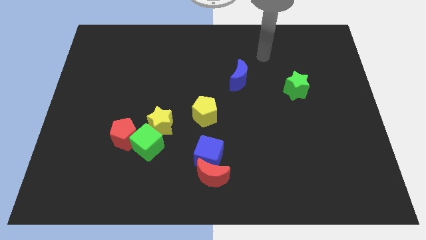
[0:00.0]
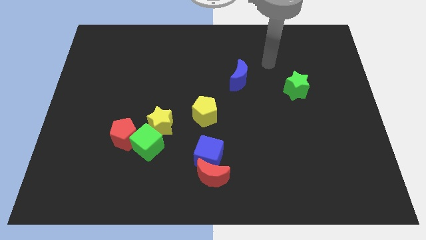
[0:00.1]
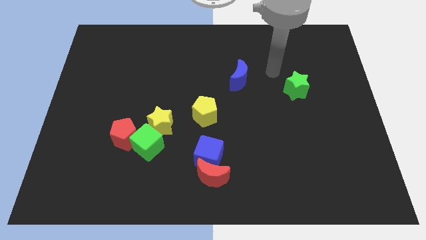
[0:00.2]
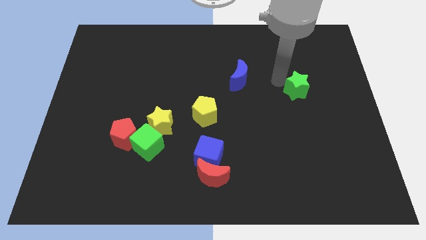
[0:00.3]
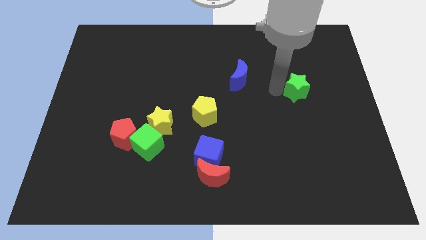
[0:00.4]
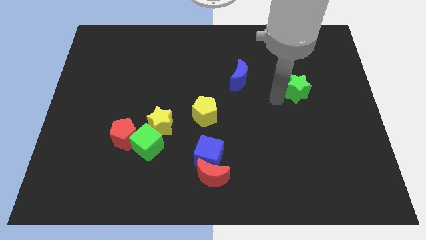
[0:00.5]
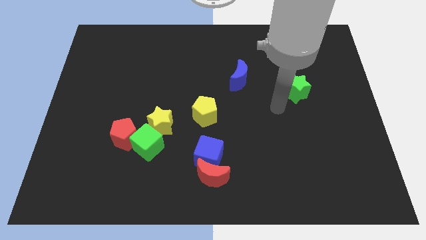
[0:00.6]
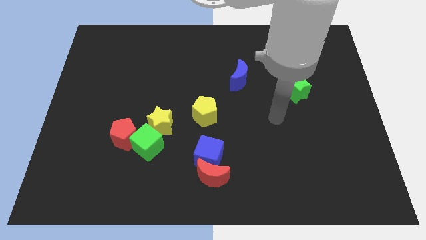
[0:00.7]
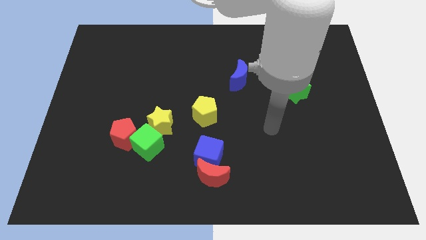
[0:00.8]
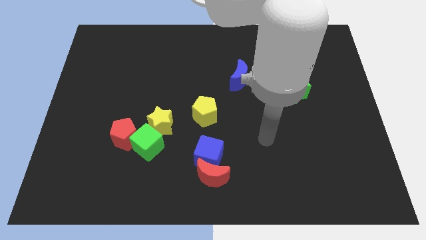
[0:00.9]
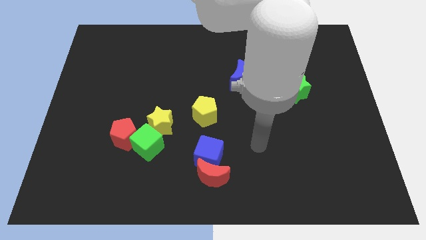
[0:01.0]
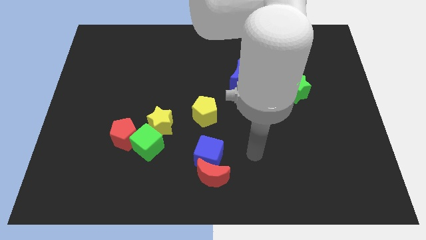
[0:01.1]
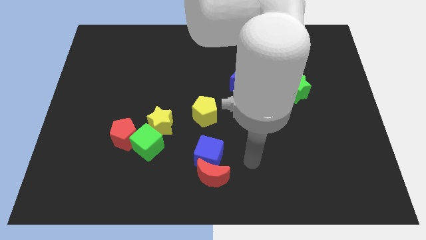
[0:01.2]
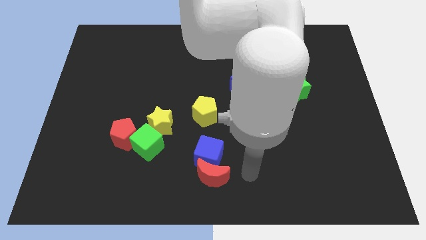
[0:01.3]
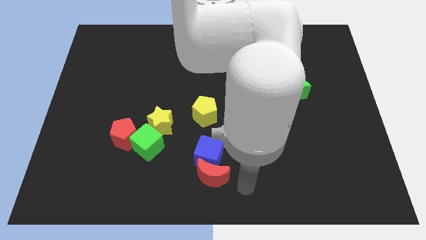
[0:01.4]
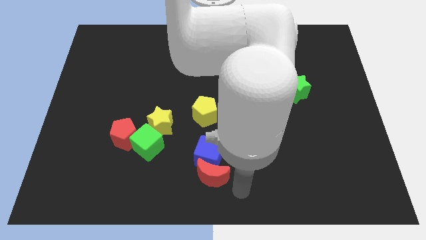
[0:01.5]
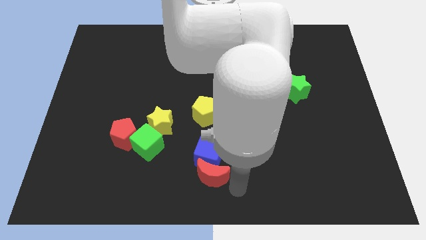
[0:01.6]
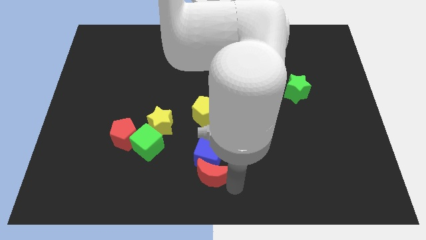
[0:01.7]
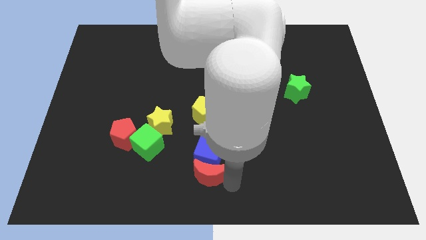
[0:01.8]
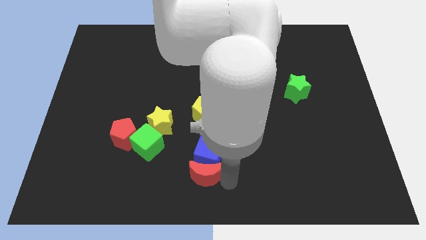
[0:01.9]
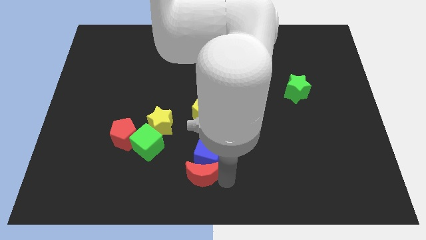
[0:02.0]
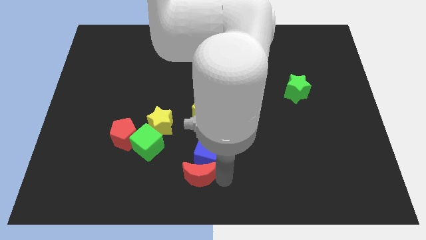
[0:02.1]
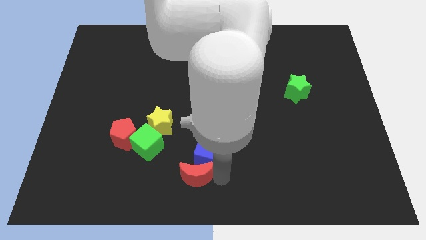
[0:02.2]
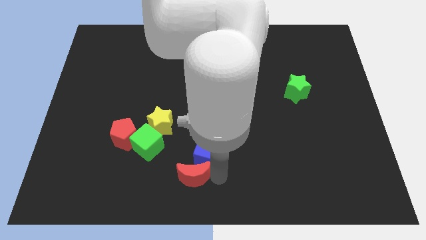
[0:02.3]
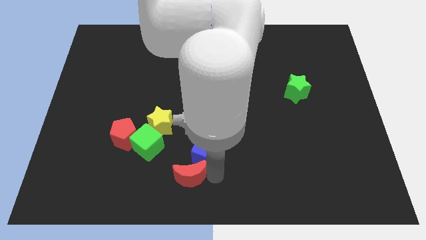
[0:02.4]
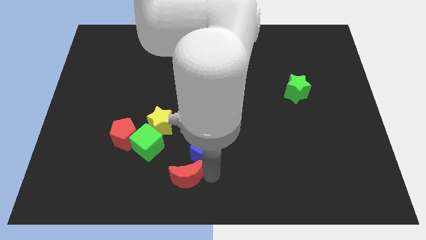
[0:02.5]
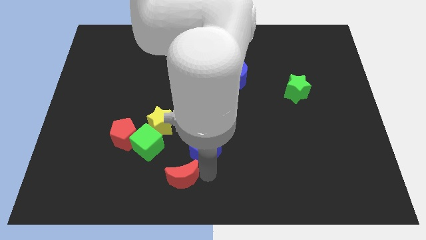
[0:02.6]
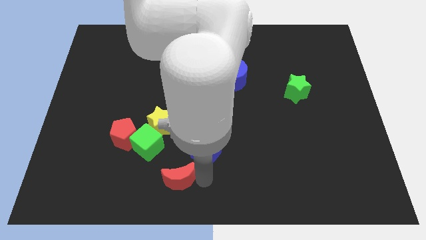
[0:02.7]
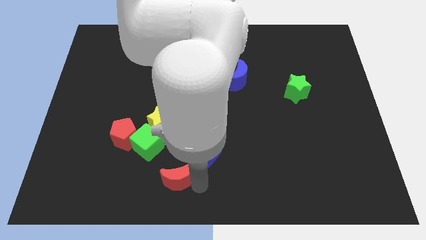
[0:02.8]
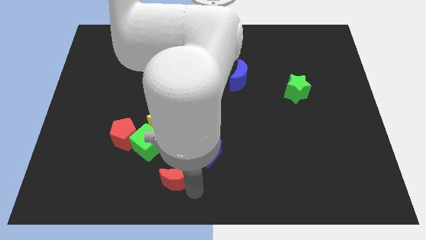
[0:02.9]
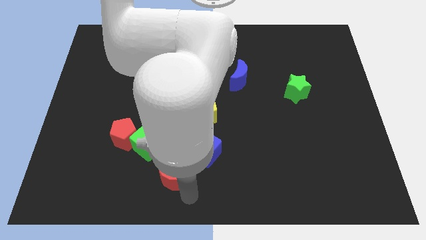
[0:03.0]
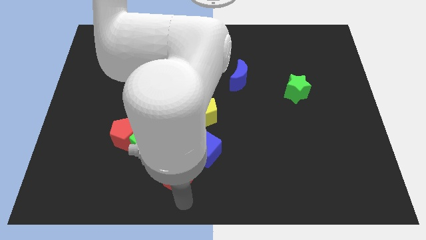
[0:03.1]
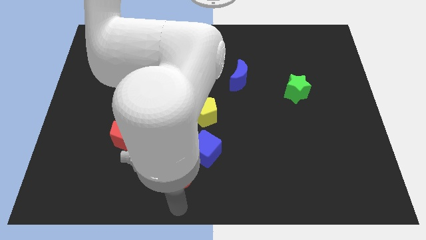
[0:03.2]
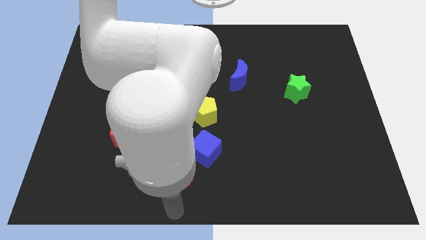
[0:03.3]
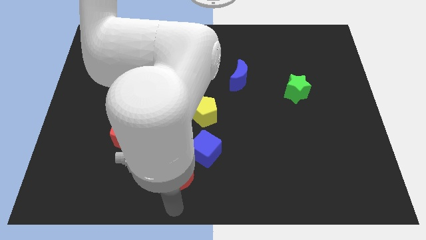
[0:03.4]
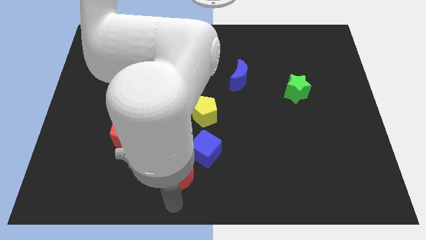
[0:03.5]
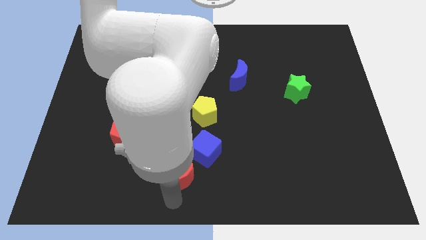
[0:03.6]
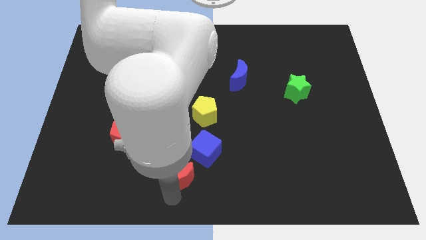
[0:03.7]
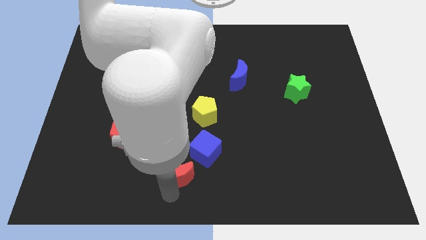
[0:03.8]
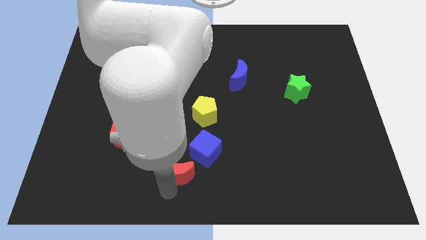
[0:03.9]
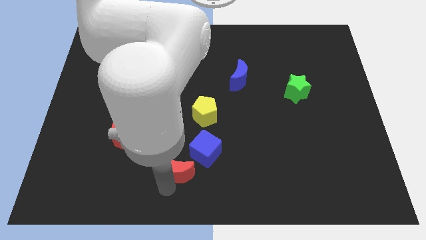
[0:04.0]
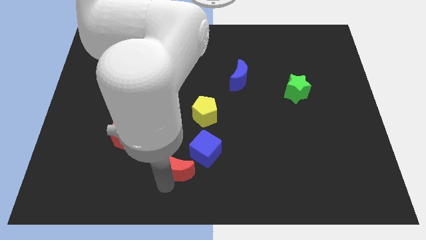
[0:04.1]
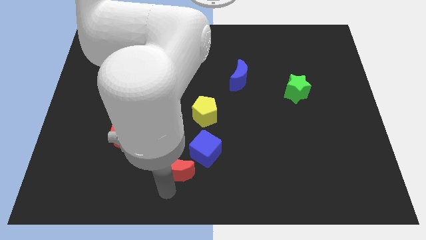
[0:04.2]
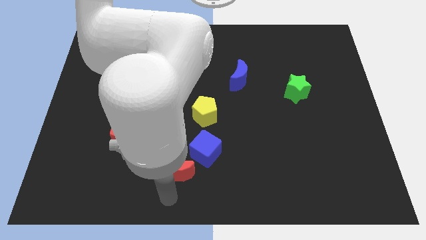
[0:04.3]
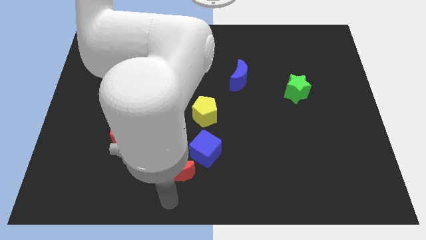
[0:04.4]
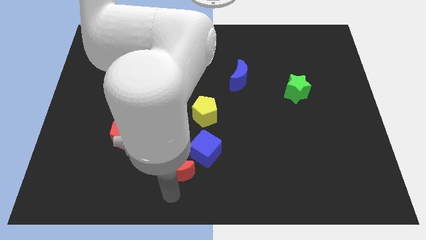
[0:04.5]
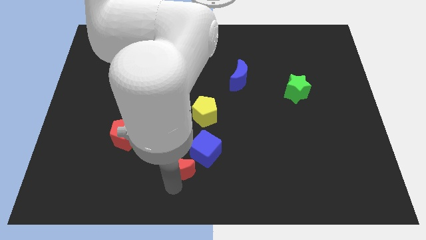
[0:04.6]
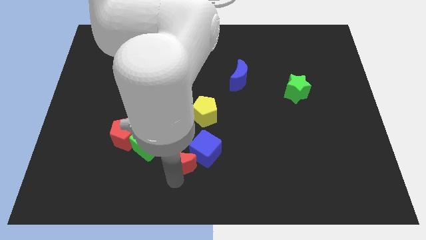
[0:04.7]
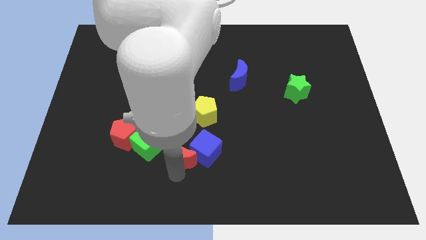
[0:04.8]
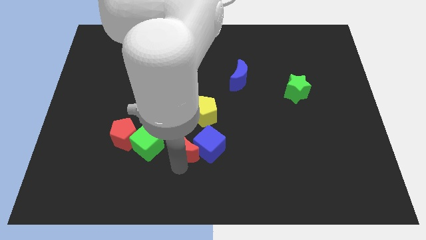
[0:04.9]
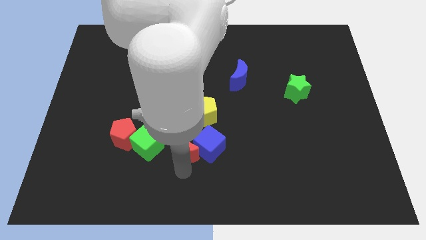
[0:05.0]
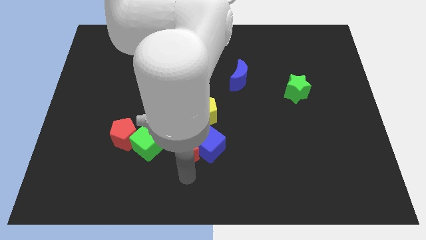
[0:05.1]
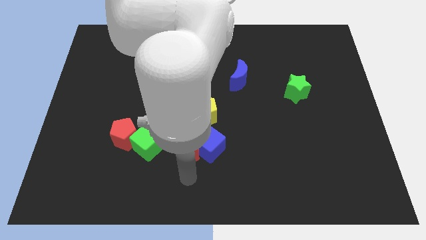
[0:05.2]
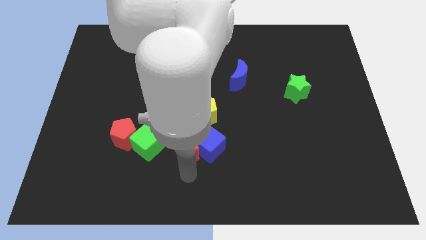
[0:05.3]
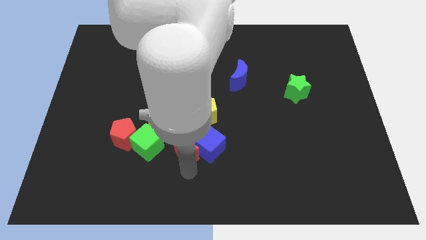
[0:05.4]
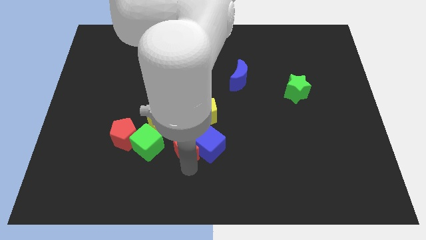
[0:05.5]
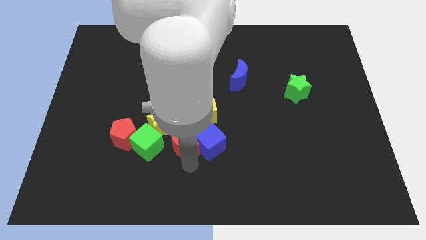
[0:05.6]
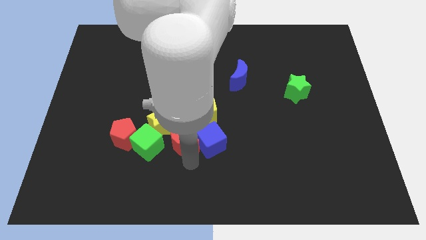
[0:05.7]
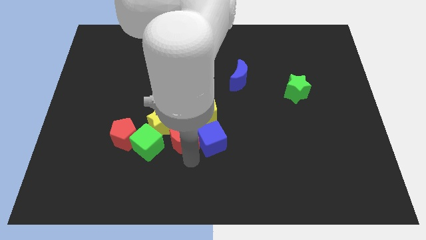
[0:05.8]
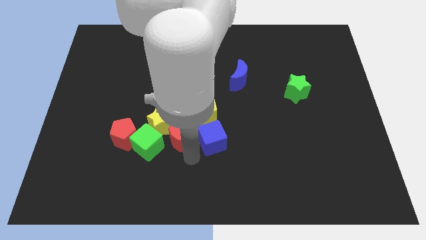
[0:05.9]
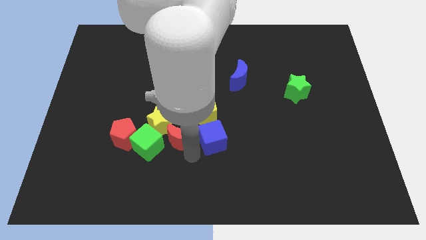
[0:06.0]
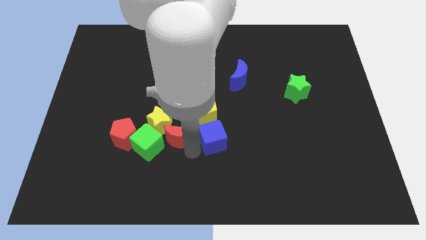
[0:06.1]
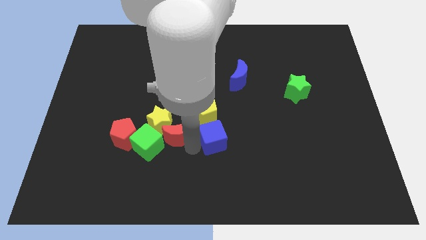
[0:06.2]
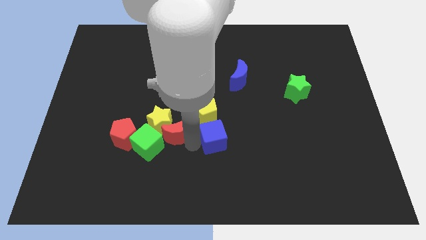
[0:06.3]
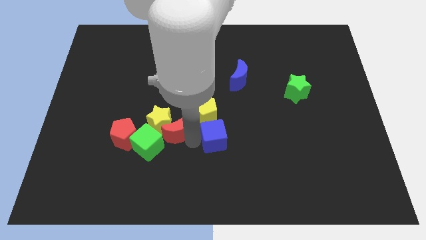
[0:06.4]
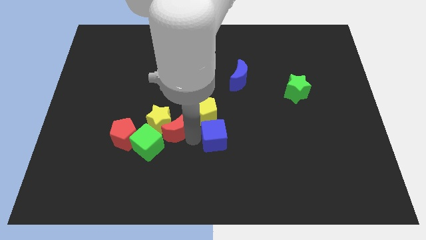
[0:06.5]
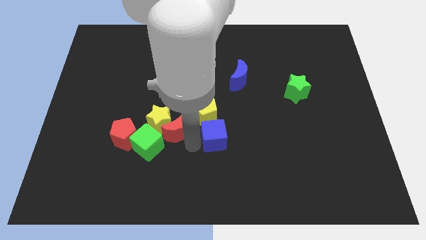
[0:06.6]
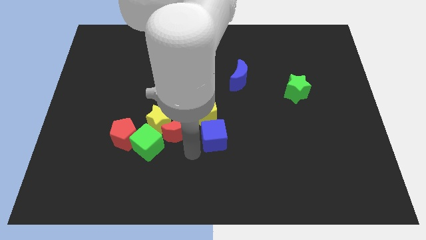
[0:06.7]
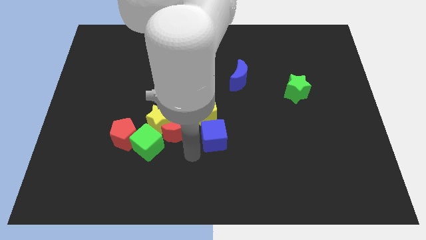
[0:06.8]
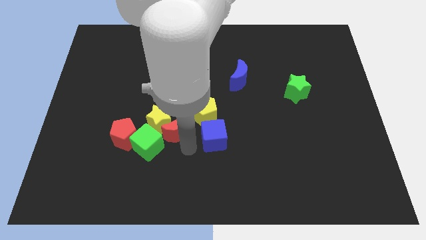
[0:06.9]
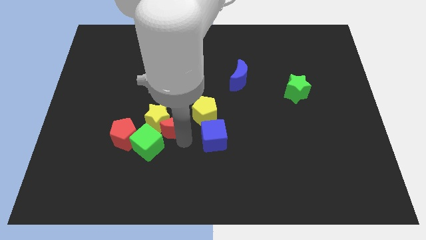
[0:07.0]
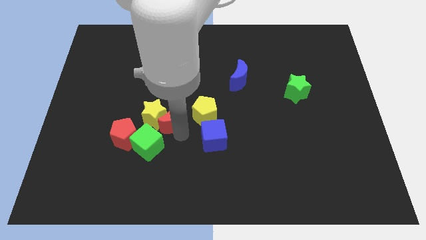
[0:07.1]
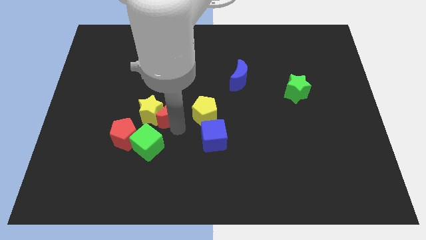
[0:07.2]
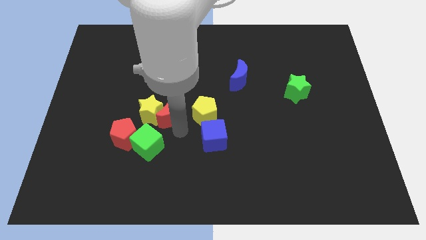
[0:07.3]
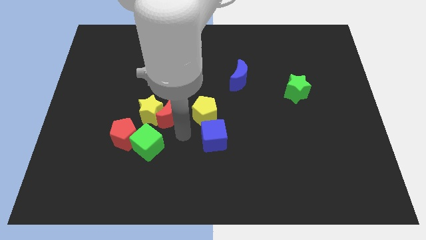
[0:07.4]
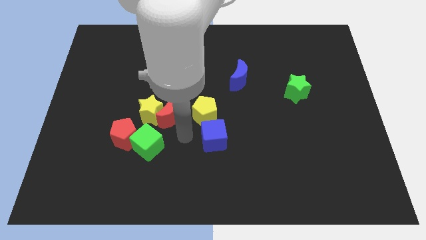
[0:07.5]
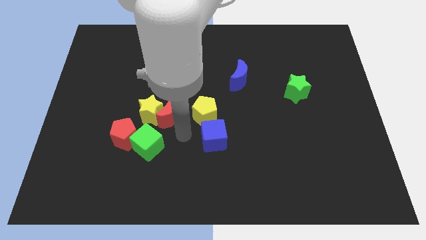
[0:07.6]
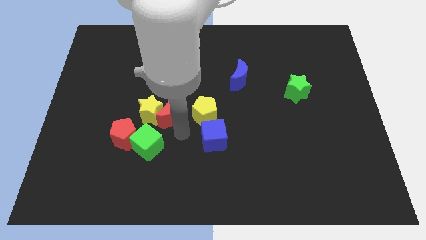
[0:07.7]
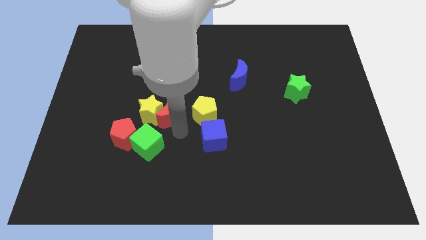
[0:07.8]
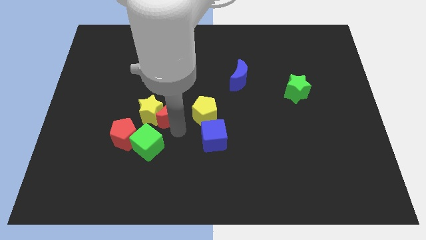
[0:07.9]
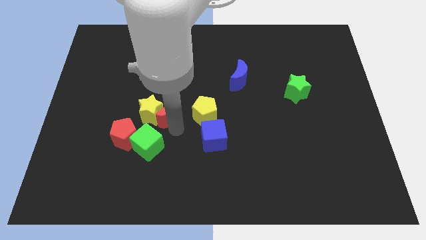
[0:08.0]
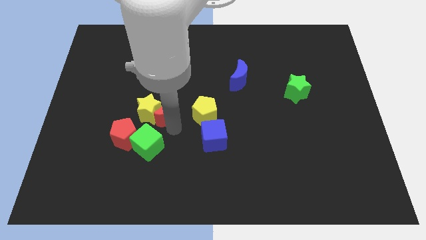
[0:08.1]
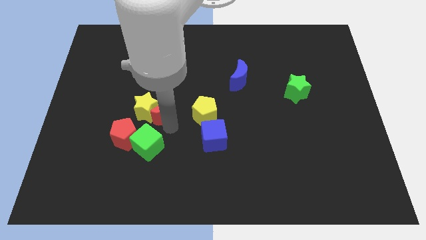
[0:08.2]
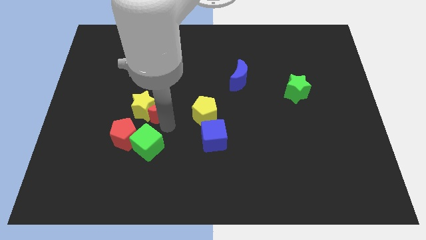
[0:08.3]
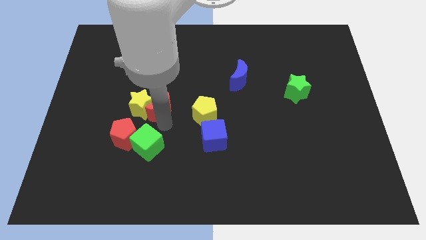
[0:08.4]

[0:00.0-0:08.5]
slide the red moon up and to the left
